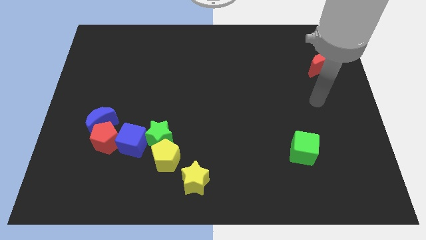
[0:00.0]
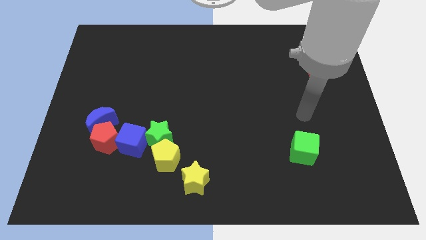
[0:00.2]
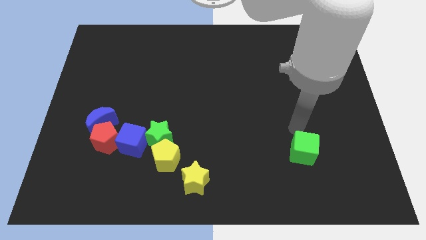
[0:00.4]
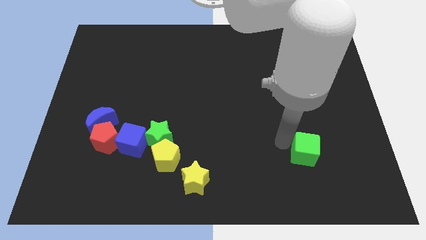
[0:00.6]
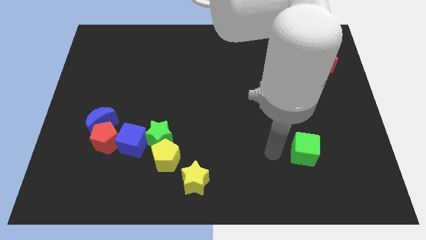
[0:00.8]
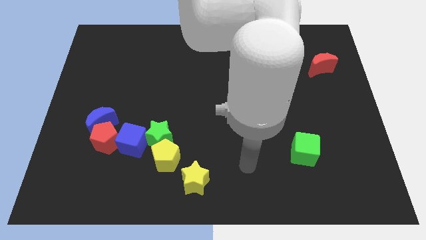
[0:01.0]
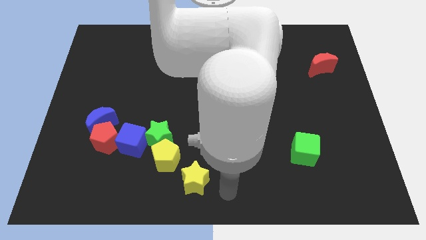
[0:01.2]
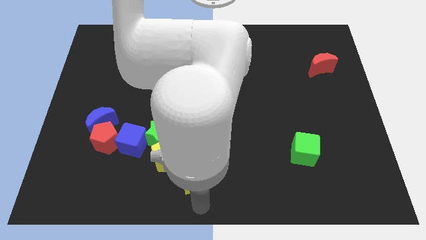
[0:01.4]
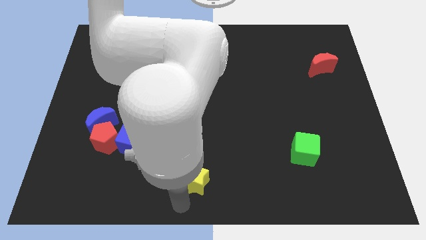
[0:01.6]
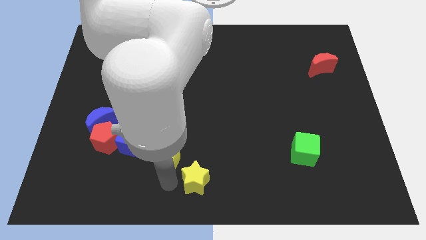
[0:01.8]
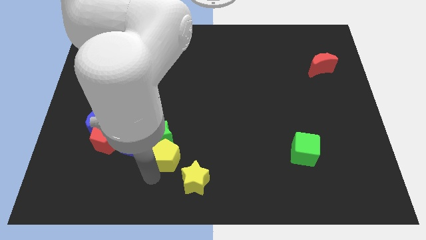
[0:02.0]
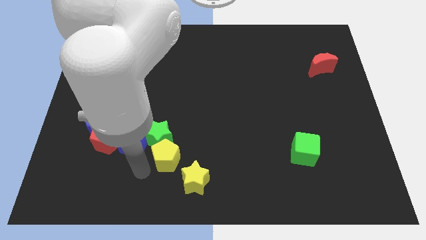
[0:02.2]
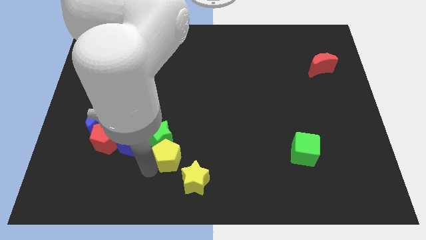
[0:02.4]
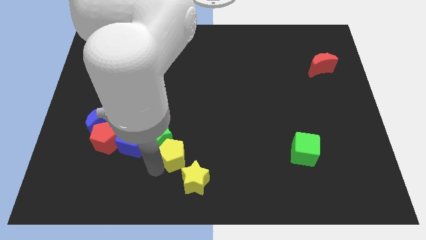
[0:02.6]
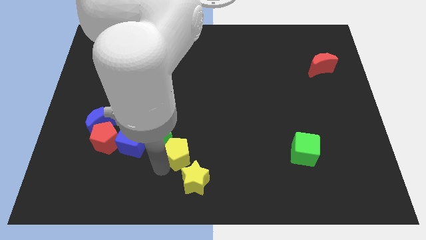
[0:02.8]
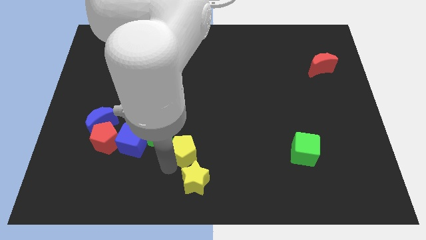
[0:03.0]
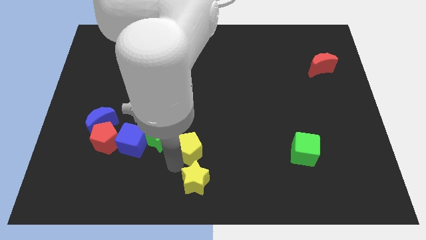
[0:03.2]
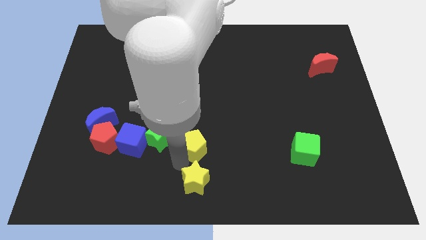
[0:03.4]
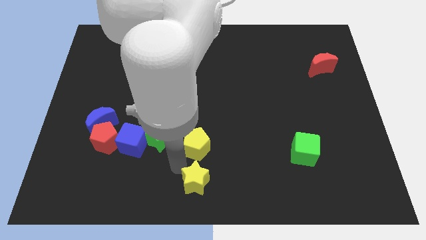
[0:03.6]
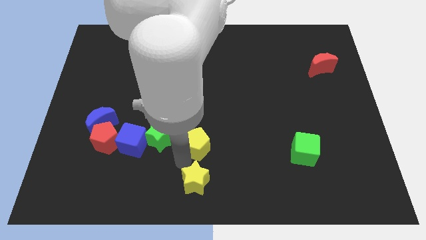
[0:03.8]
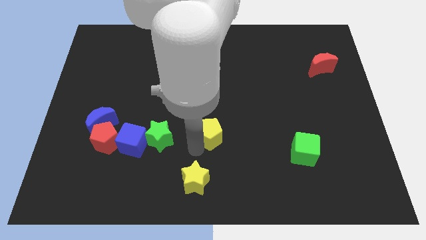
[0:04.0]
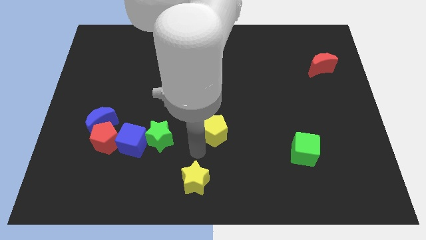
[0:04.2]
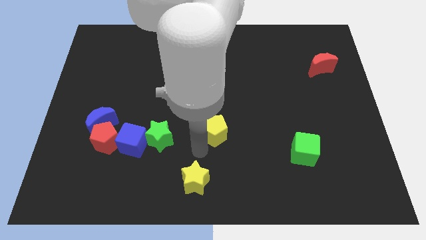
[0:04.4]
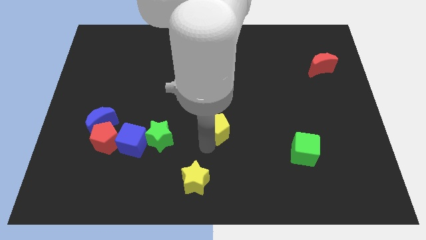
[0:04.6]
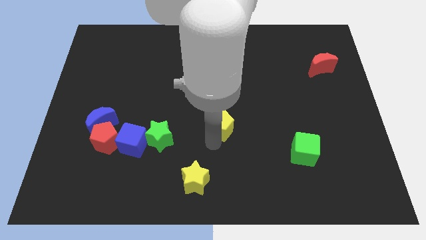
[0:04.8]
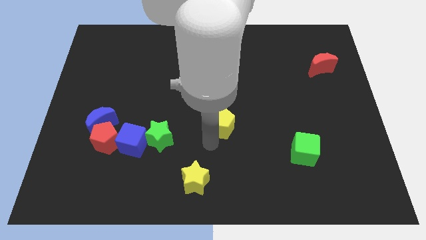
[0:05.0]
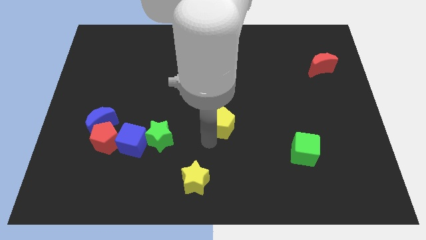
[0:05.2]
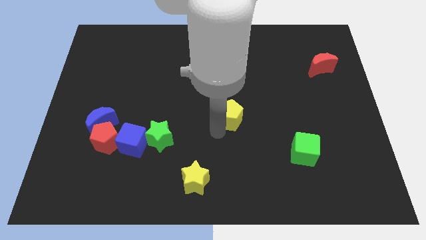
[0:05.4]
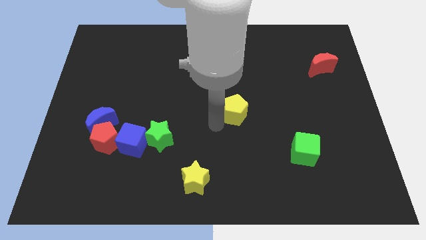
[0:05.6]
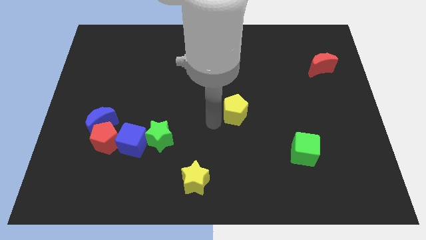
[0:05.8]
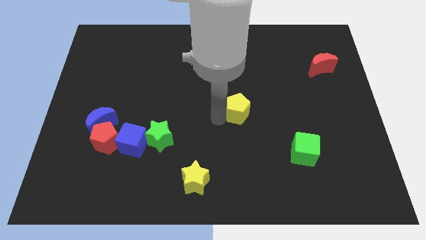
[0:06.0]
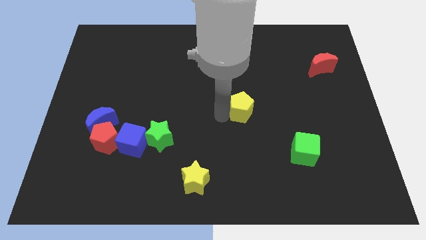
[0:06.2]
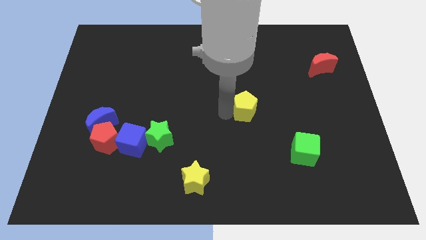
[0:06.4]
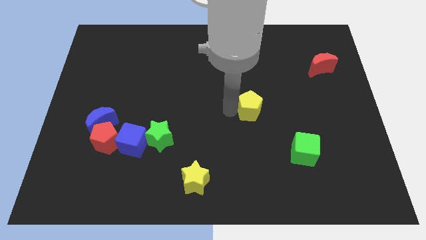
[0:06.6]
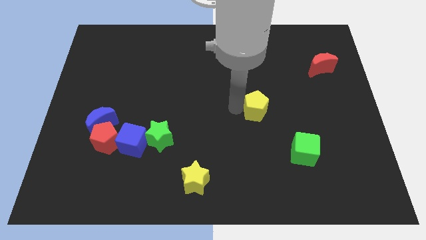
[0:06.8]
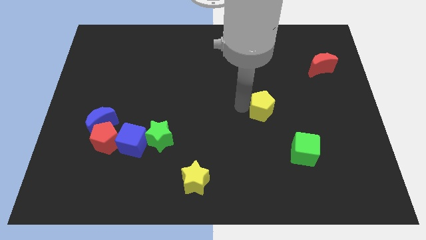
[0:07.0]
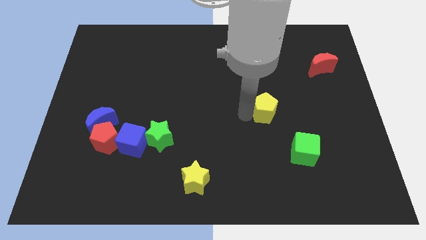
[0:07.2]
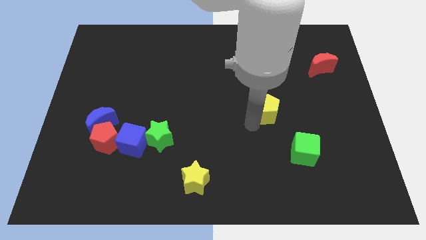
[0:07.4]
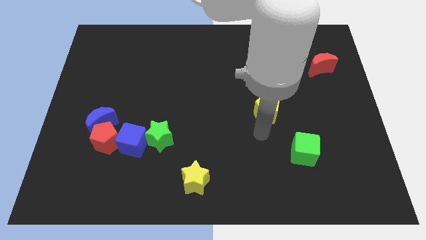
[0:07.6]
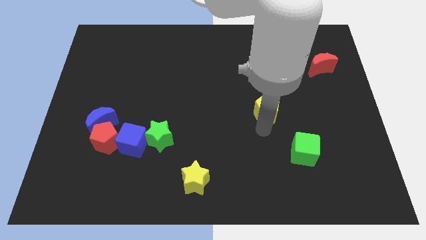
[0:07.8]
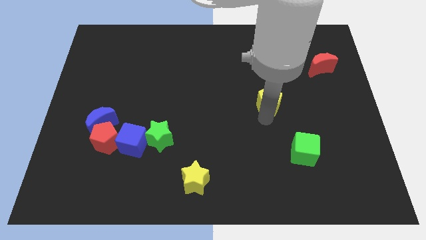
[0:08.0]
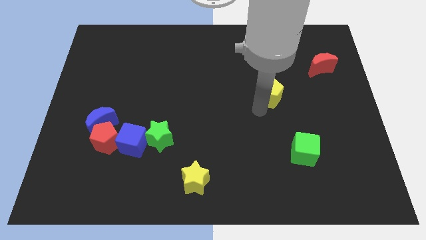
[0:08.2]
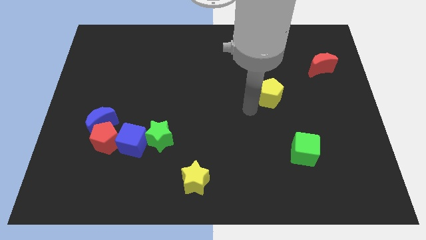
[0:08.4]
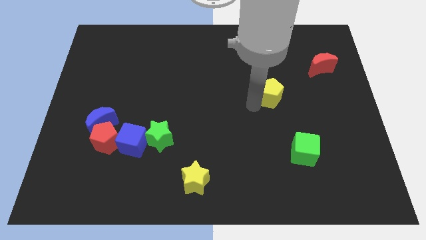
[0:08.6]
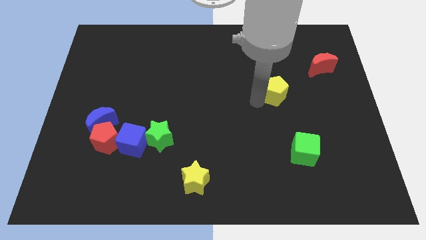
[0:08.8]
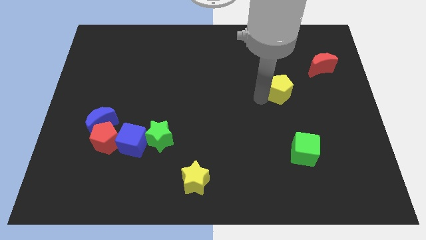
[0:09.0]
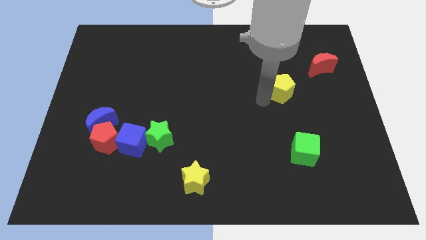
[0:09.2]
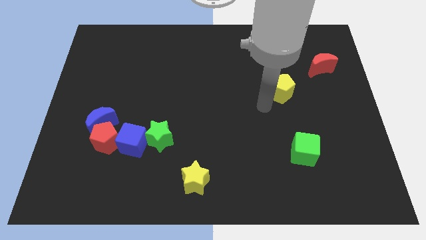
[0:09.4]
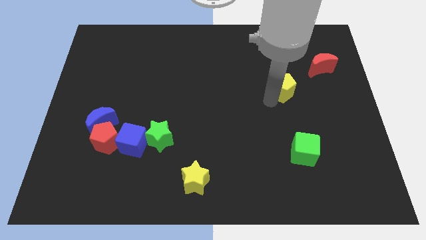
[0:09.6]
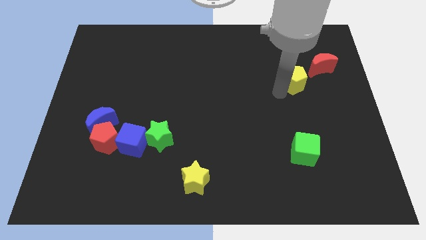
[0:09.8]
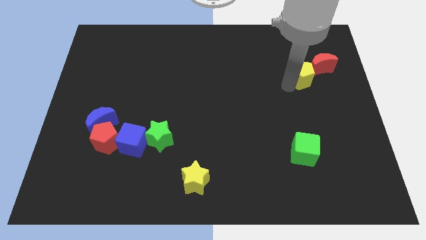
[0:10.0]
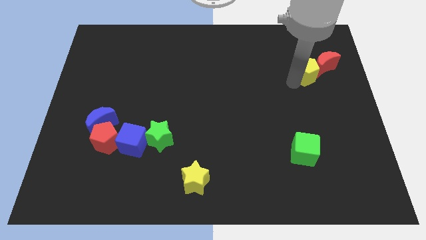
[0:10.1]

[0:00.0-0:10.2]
move the yellow pentagon to the red moon

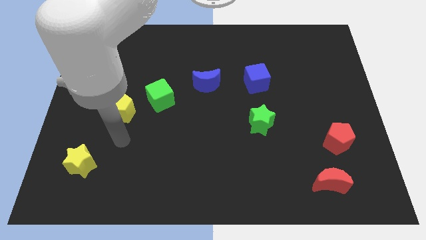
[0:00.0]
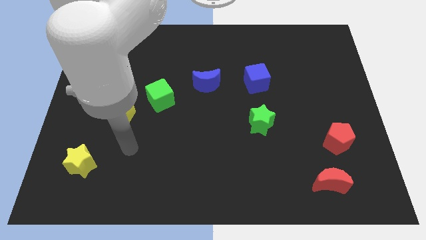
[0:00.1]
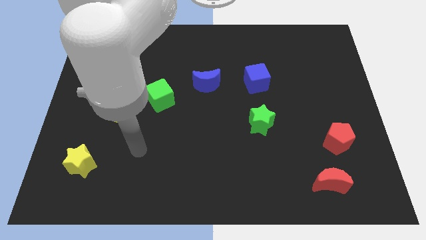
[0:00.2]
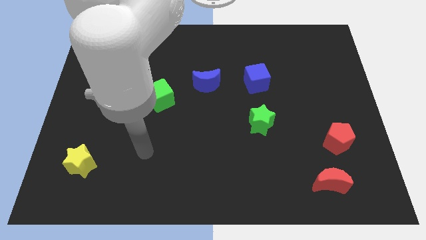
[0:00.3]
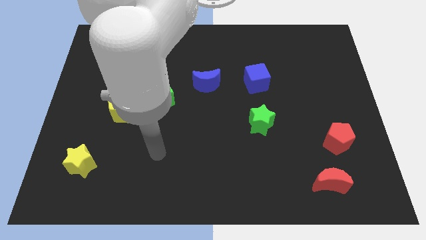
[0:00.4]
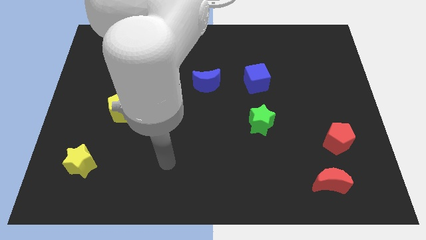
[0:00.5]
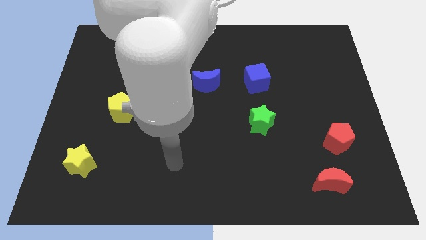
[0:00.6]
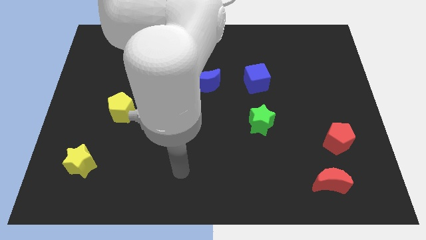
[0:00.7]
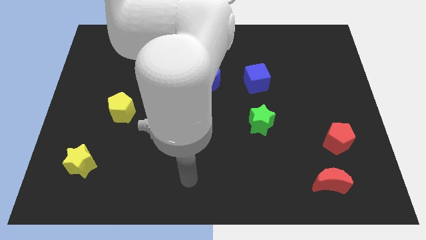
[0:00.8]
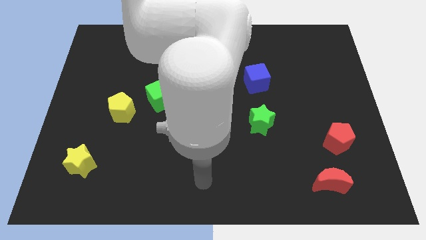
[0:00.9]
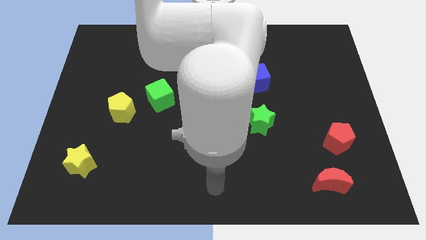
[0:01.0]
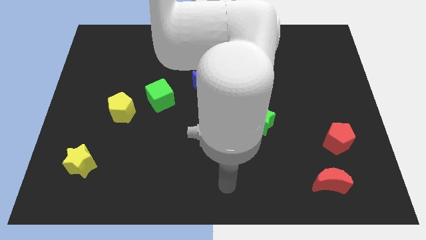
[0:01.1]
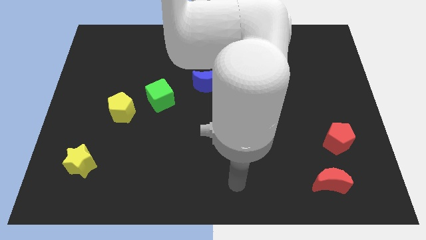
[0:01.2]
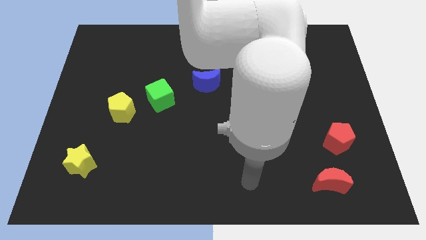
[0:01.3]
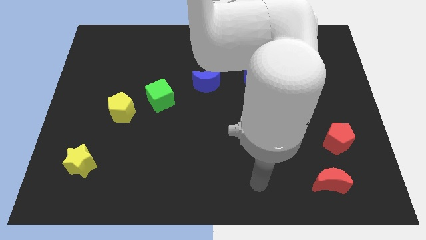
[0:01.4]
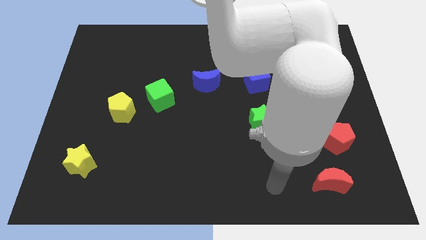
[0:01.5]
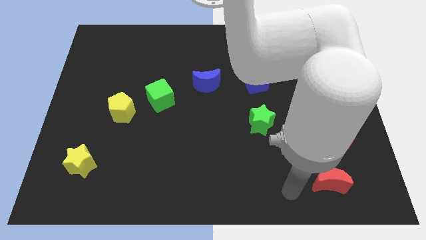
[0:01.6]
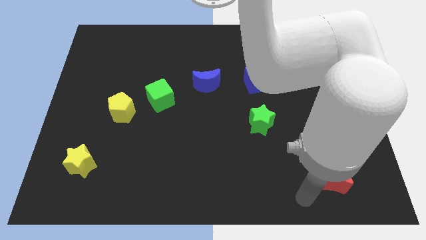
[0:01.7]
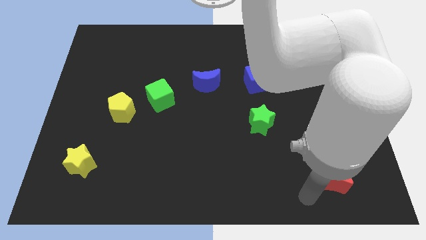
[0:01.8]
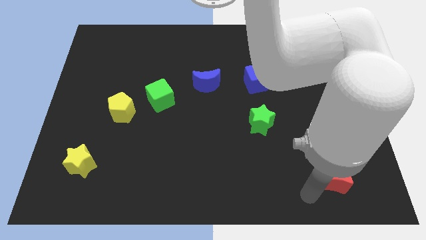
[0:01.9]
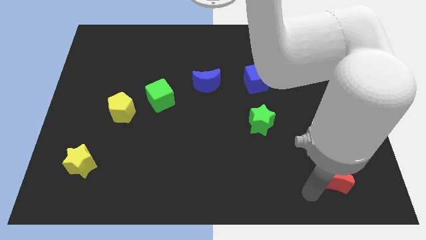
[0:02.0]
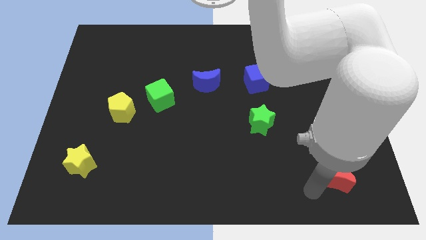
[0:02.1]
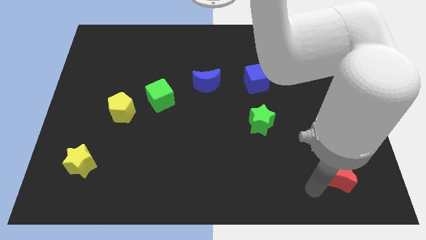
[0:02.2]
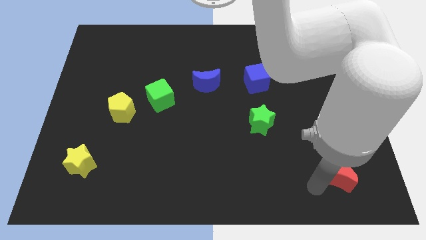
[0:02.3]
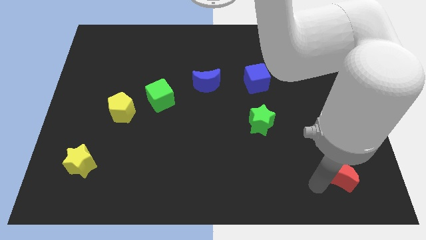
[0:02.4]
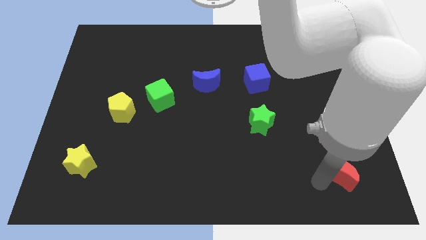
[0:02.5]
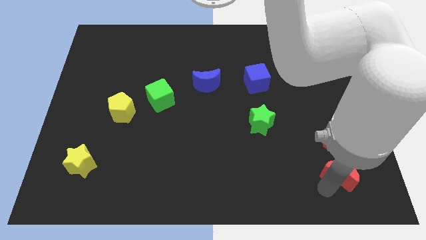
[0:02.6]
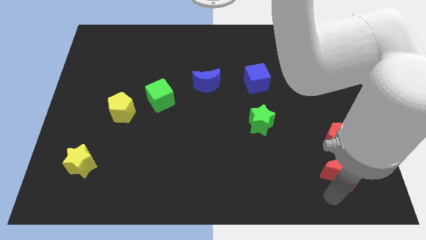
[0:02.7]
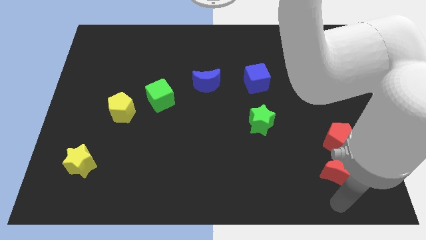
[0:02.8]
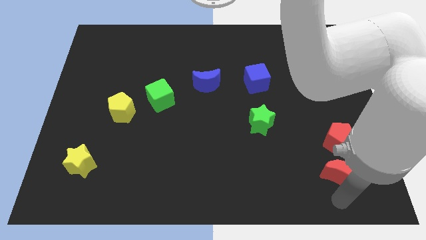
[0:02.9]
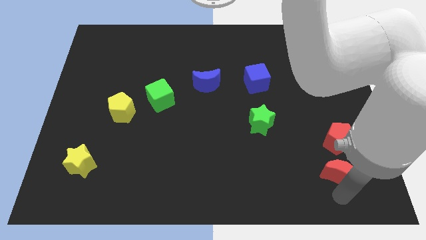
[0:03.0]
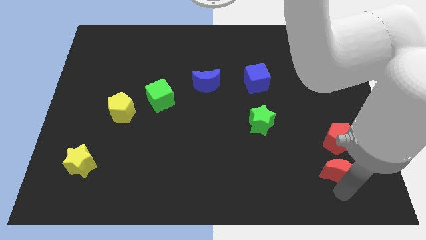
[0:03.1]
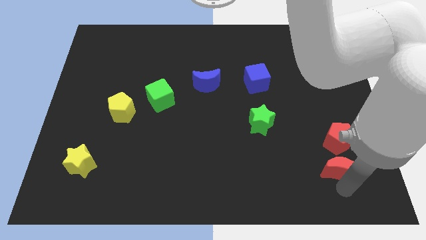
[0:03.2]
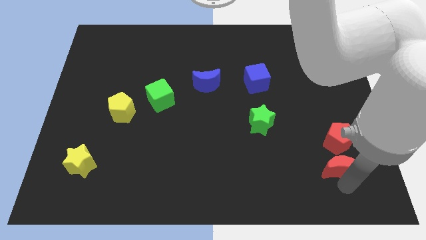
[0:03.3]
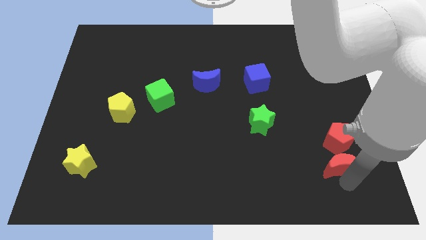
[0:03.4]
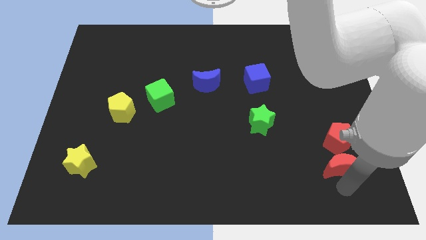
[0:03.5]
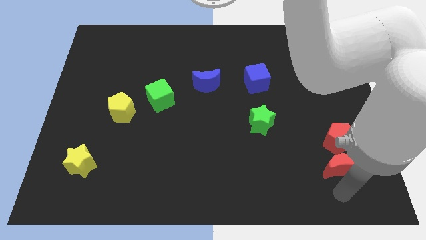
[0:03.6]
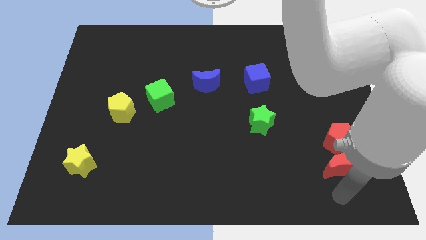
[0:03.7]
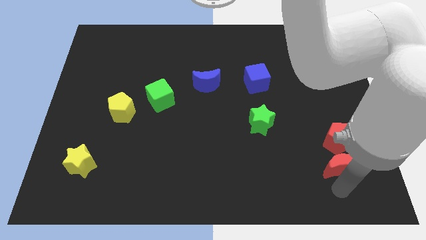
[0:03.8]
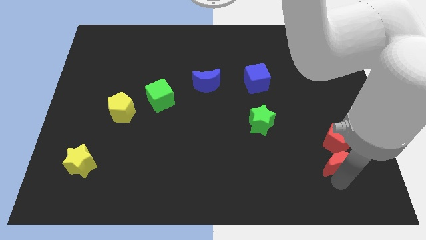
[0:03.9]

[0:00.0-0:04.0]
move the red moon close to the red pentagon
